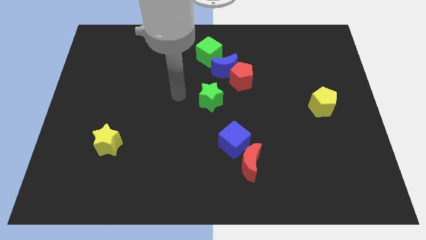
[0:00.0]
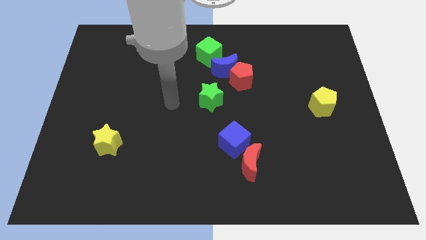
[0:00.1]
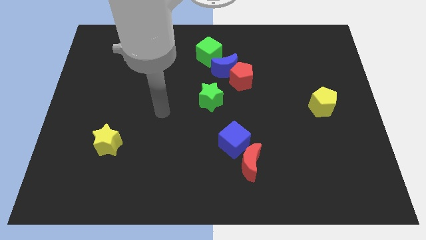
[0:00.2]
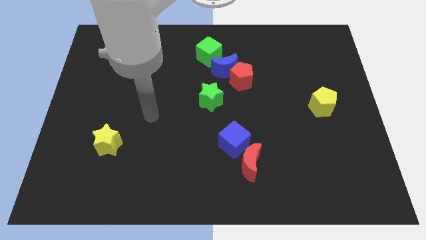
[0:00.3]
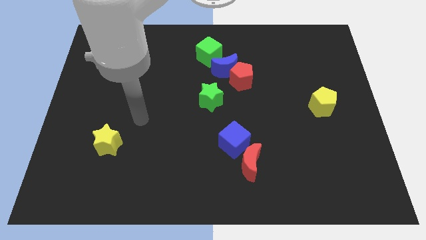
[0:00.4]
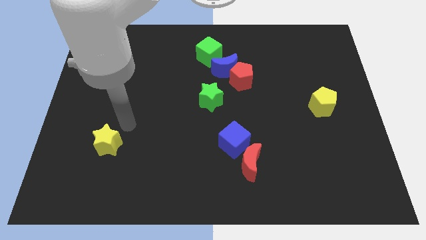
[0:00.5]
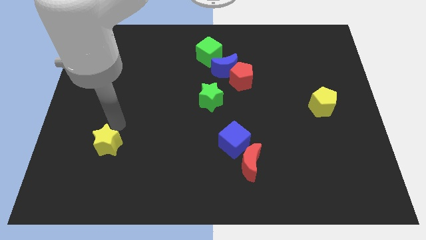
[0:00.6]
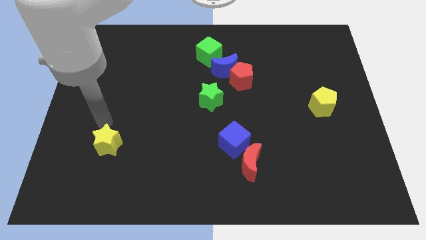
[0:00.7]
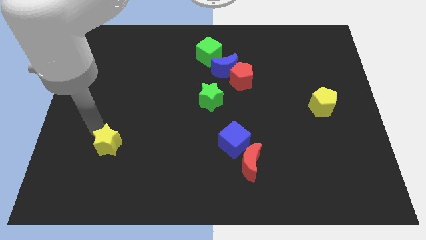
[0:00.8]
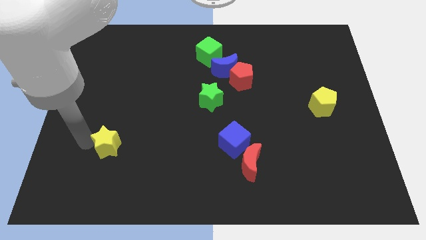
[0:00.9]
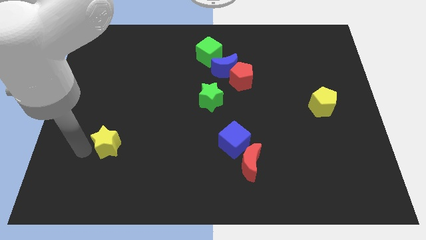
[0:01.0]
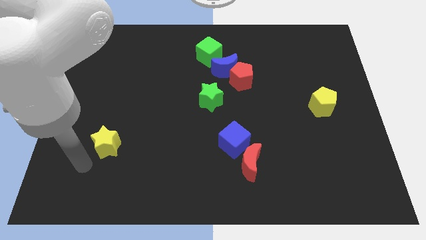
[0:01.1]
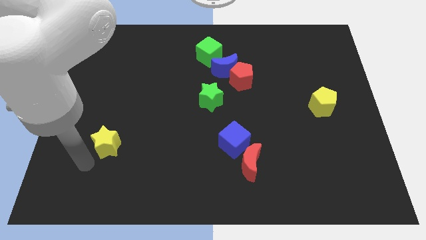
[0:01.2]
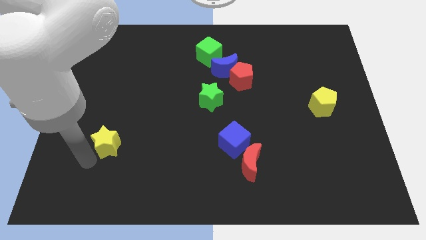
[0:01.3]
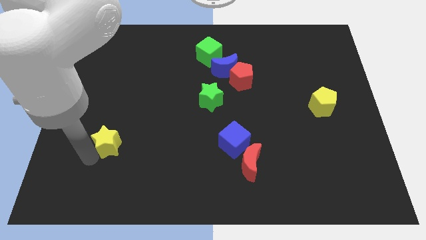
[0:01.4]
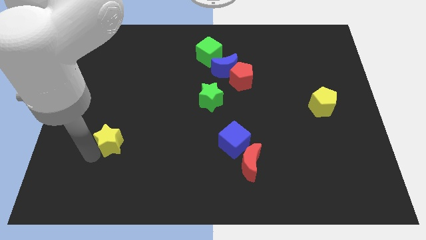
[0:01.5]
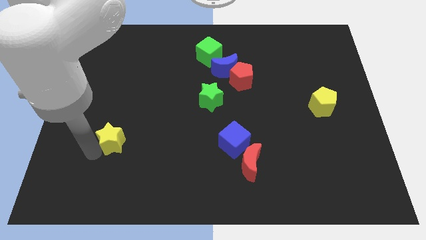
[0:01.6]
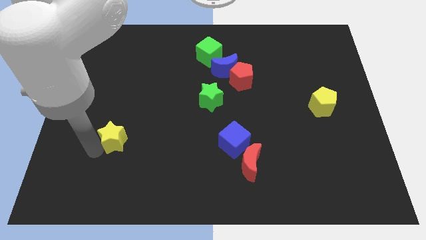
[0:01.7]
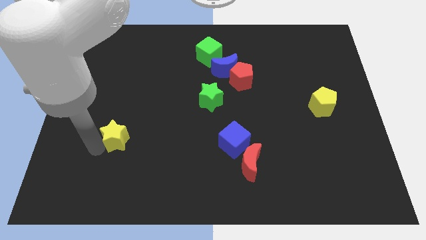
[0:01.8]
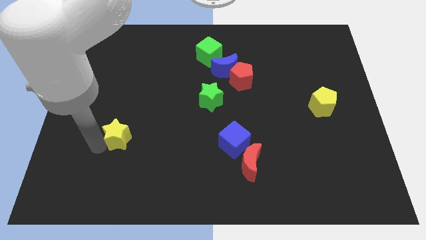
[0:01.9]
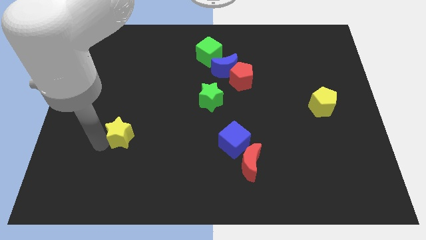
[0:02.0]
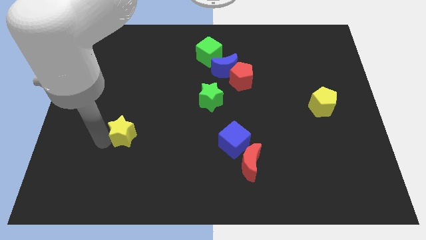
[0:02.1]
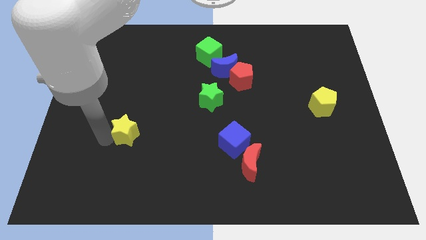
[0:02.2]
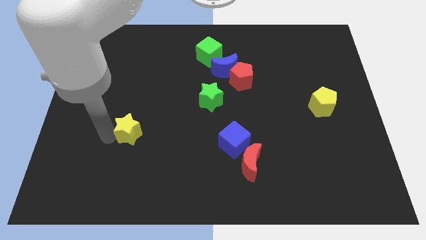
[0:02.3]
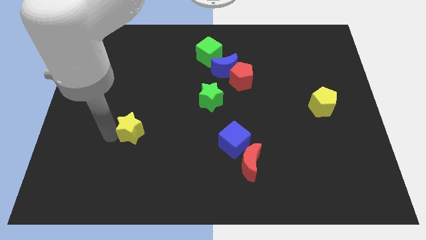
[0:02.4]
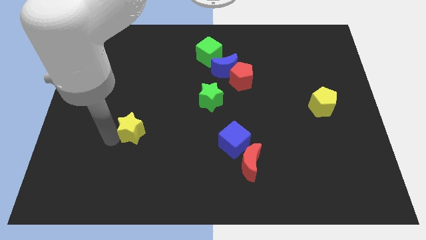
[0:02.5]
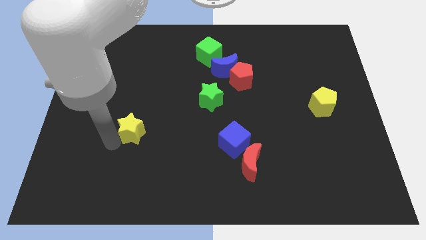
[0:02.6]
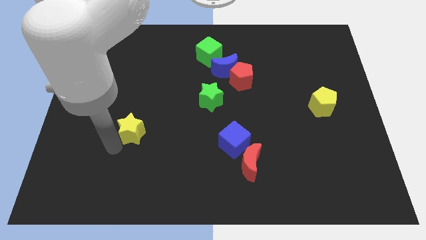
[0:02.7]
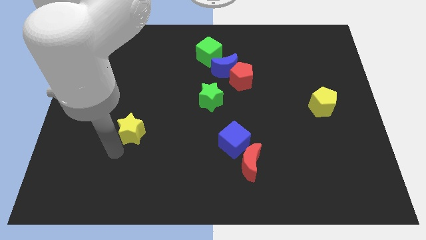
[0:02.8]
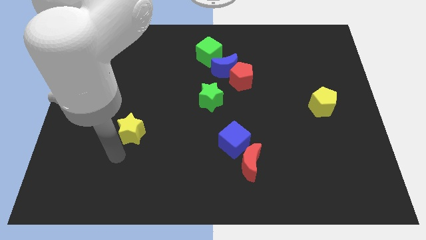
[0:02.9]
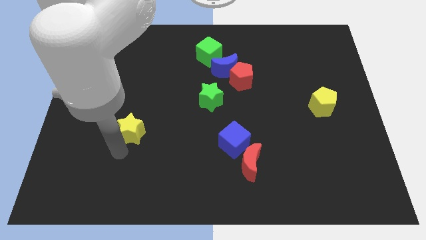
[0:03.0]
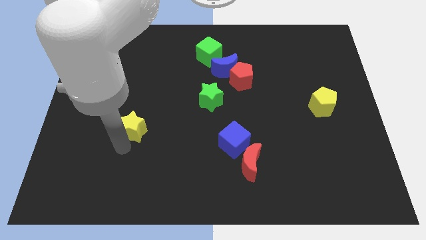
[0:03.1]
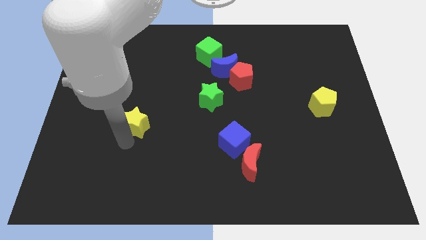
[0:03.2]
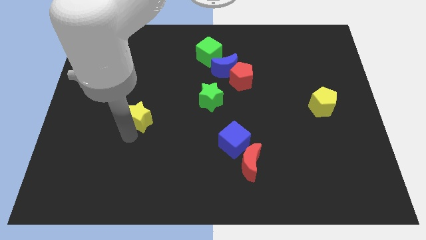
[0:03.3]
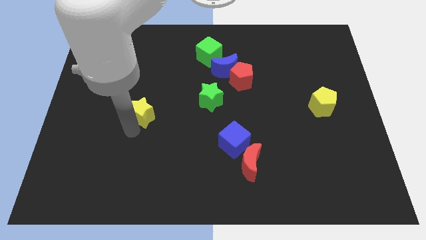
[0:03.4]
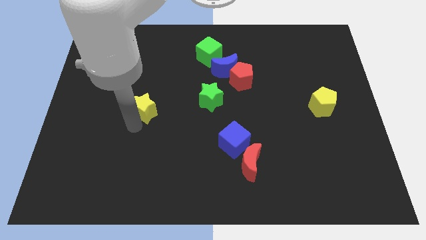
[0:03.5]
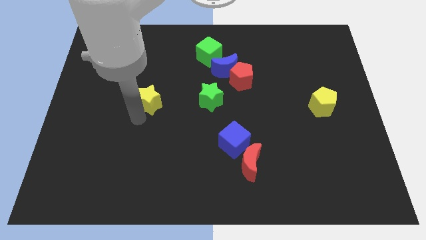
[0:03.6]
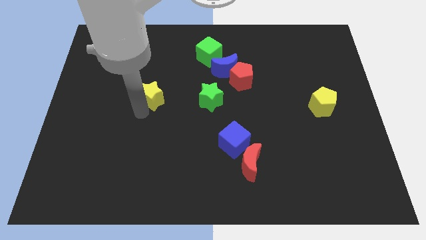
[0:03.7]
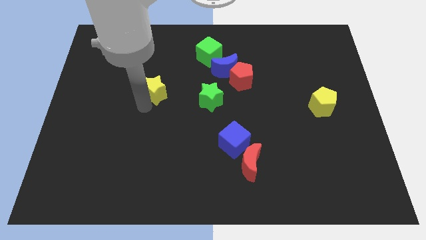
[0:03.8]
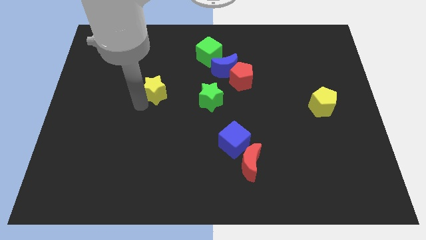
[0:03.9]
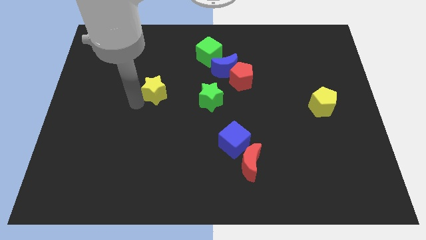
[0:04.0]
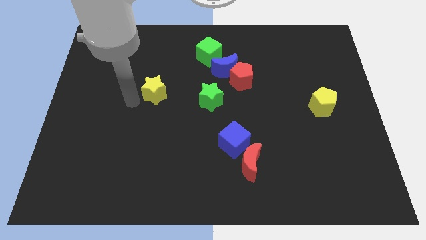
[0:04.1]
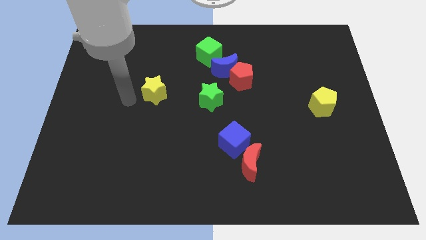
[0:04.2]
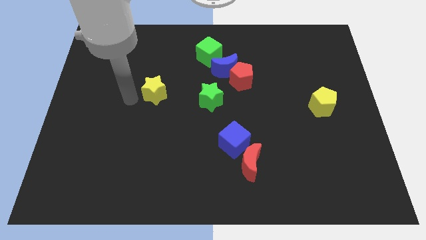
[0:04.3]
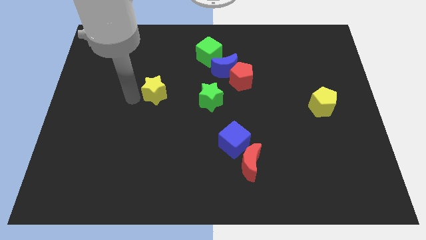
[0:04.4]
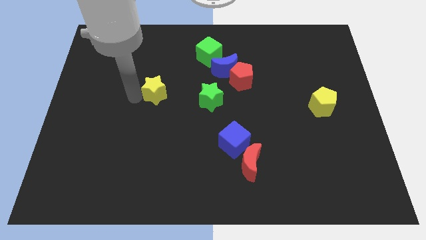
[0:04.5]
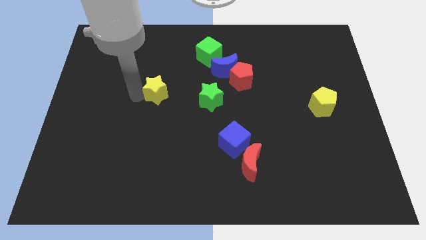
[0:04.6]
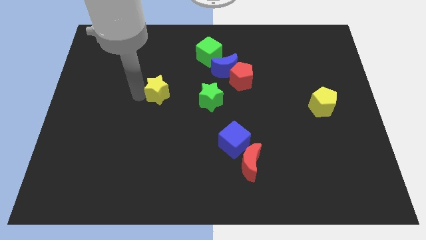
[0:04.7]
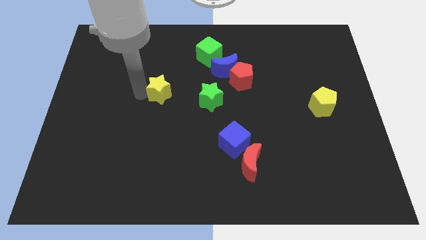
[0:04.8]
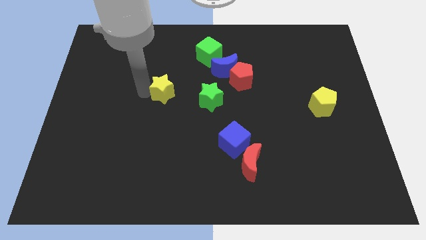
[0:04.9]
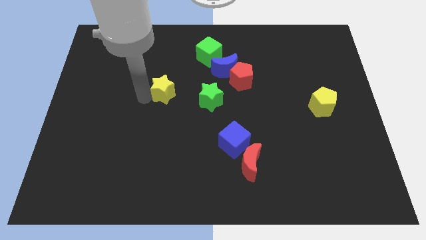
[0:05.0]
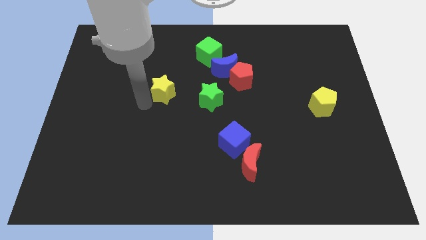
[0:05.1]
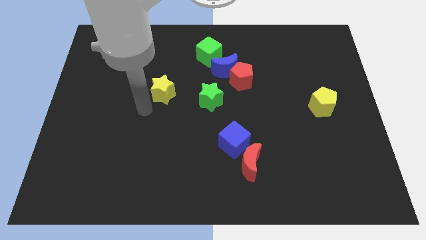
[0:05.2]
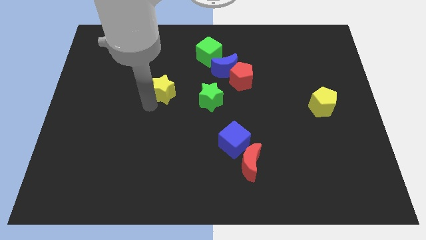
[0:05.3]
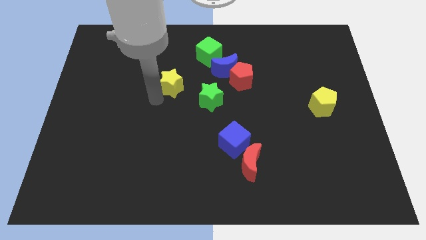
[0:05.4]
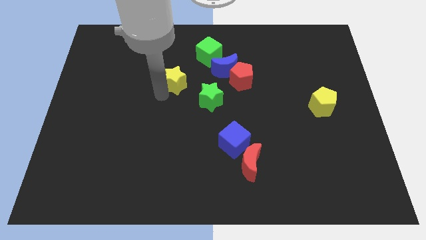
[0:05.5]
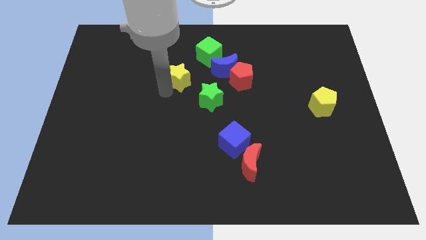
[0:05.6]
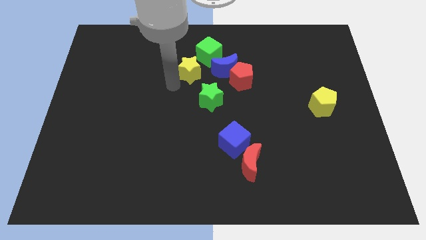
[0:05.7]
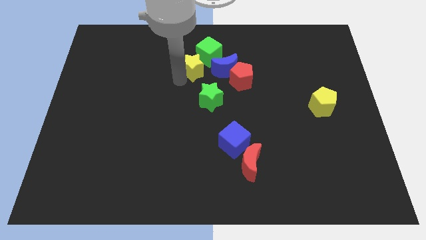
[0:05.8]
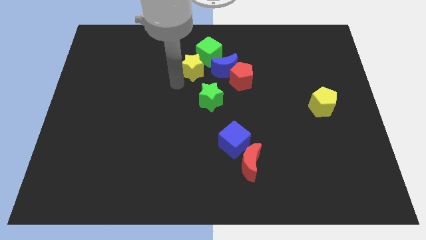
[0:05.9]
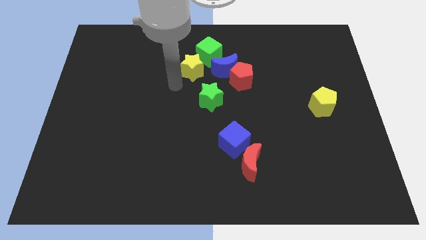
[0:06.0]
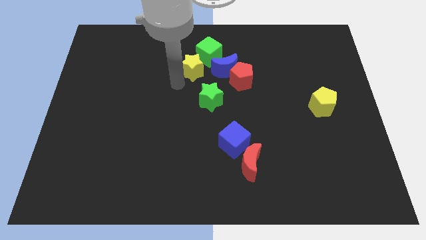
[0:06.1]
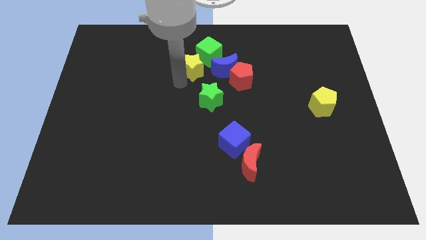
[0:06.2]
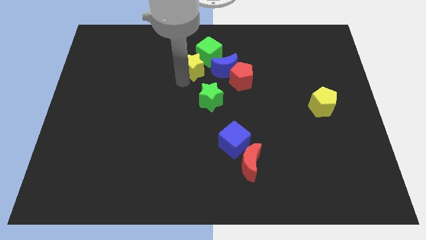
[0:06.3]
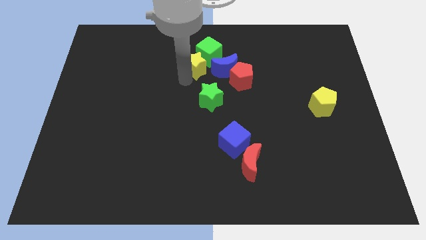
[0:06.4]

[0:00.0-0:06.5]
slide the yellow star to the green cube

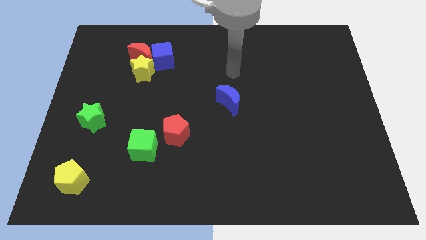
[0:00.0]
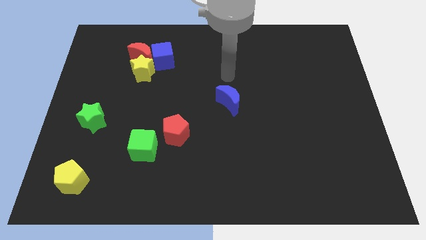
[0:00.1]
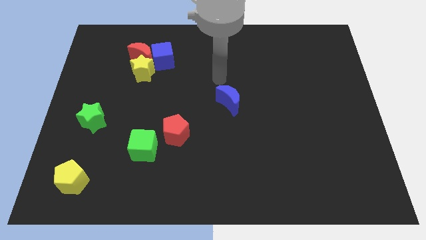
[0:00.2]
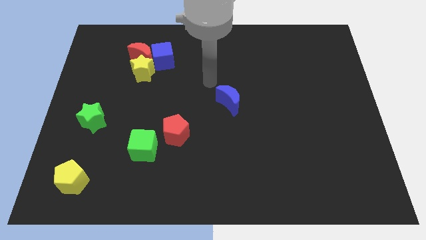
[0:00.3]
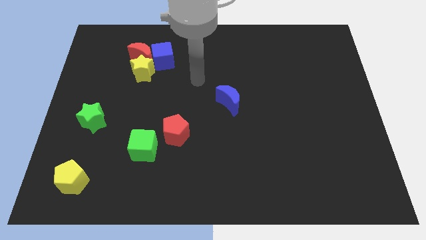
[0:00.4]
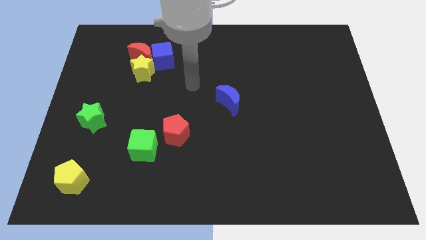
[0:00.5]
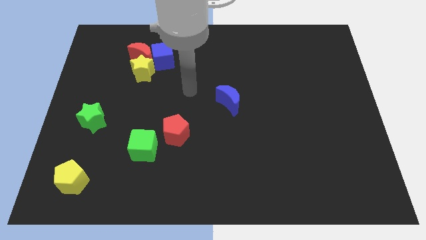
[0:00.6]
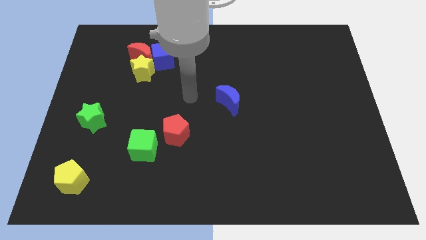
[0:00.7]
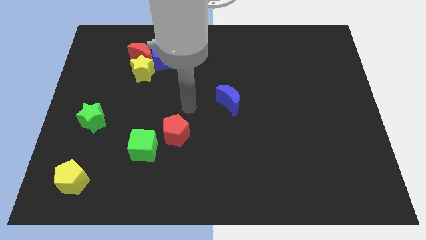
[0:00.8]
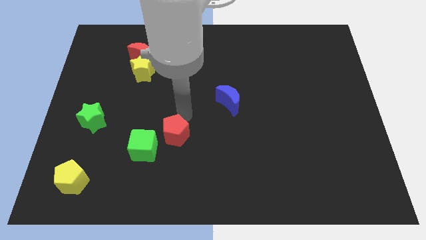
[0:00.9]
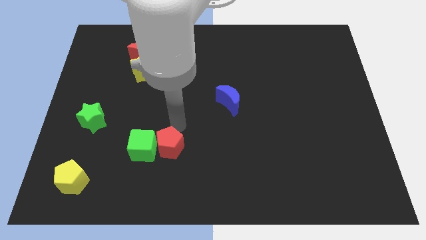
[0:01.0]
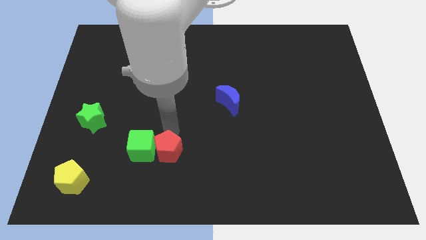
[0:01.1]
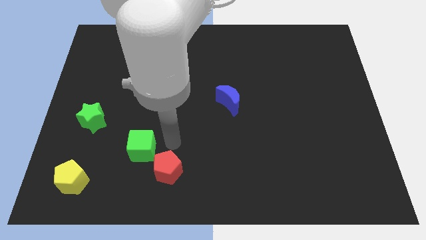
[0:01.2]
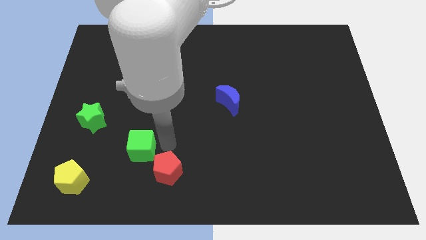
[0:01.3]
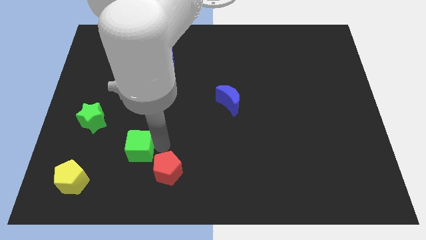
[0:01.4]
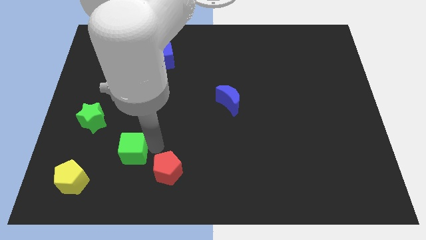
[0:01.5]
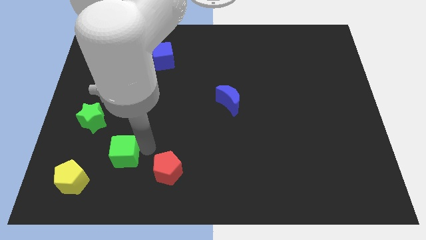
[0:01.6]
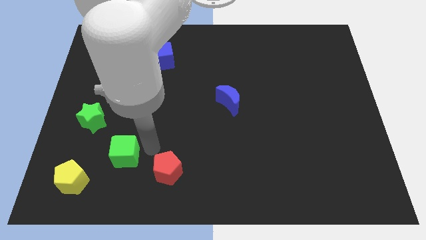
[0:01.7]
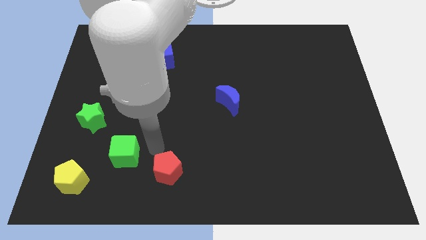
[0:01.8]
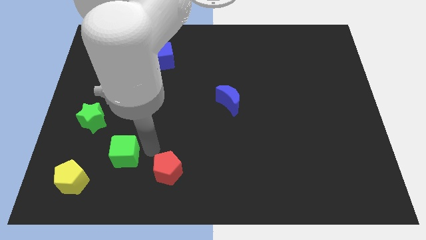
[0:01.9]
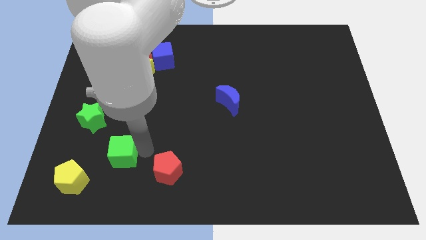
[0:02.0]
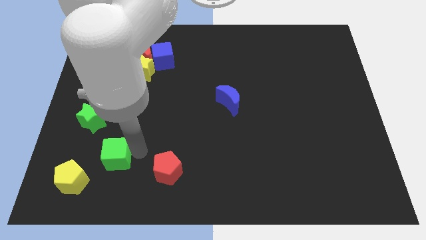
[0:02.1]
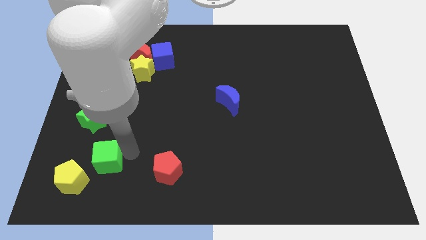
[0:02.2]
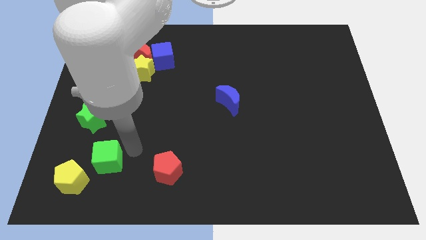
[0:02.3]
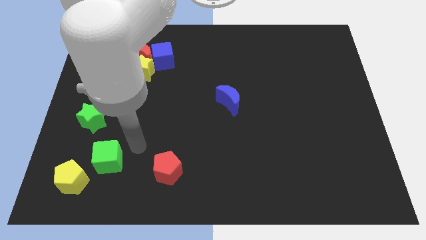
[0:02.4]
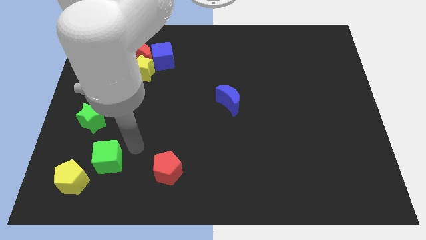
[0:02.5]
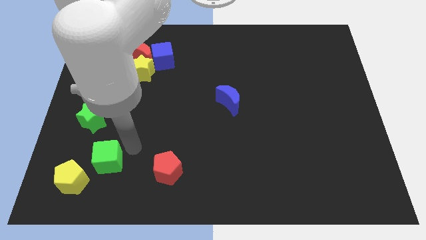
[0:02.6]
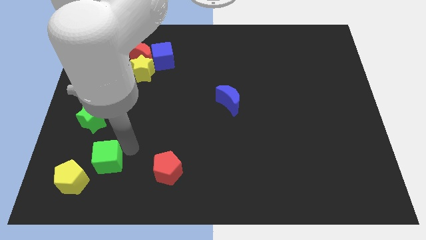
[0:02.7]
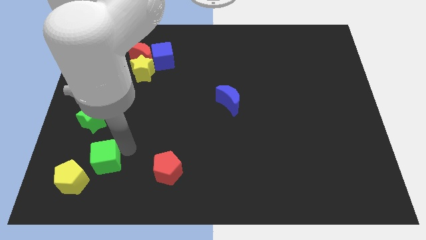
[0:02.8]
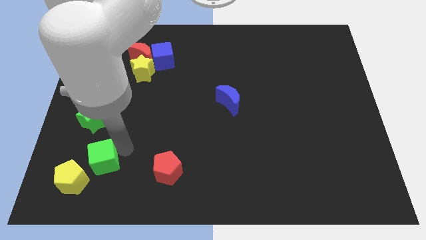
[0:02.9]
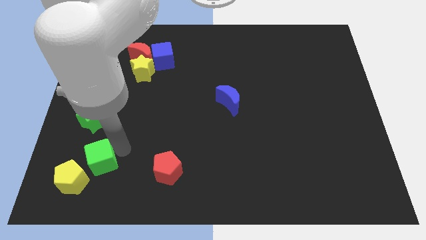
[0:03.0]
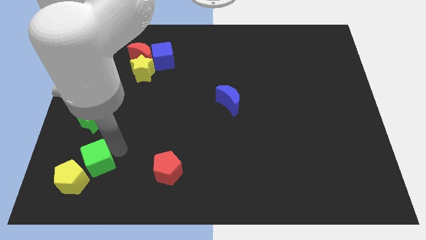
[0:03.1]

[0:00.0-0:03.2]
put the green cube towards the yellow pentagon
